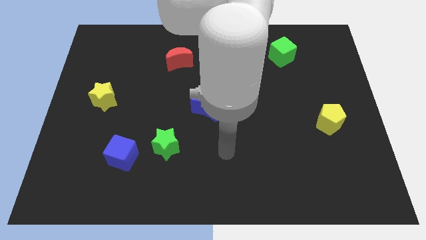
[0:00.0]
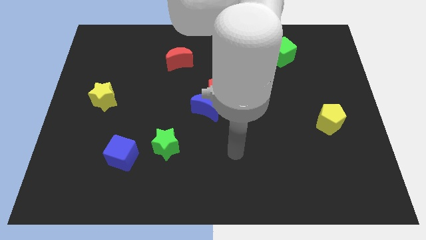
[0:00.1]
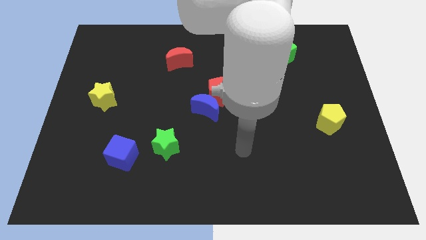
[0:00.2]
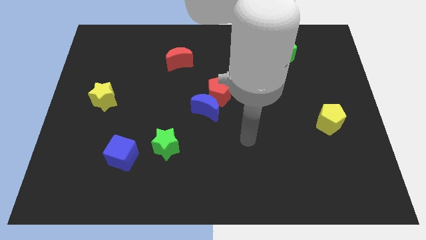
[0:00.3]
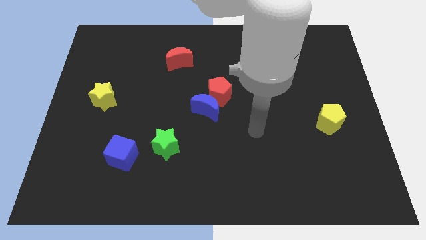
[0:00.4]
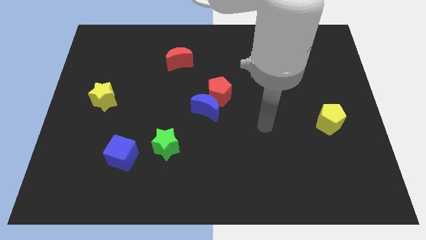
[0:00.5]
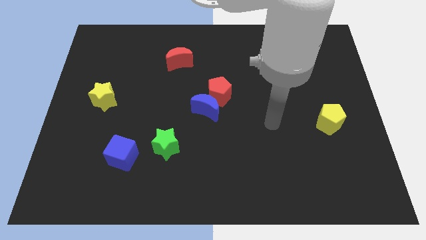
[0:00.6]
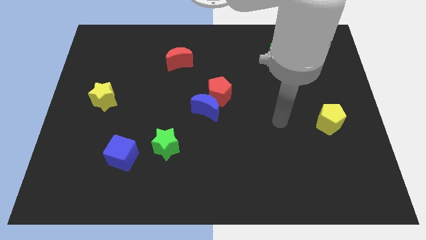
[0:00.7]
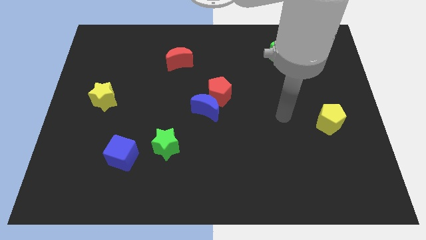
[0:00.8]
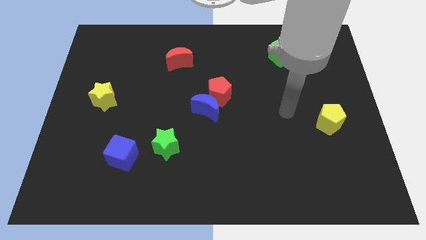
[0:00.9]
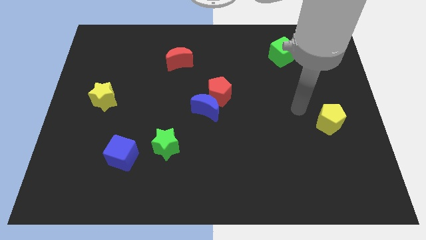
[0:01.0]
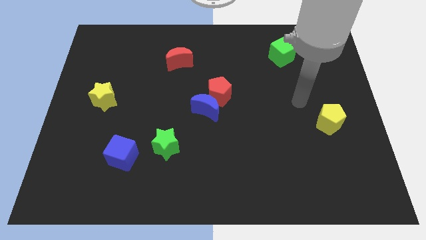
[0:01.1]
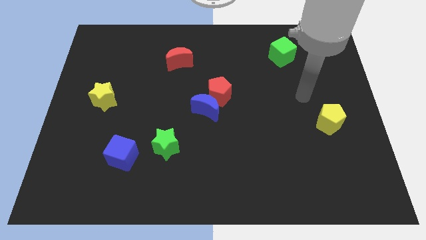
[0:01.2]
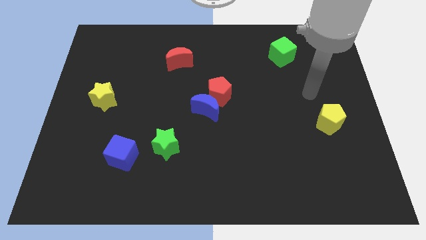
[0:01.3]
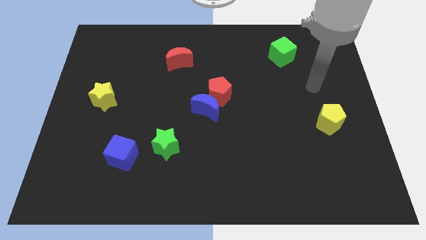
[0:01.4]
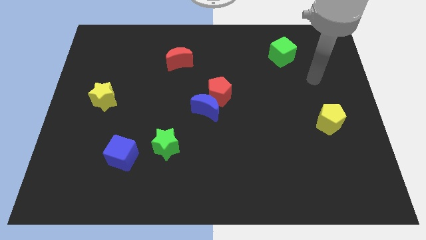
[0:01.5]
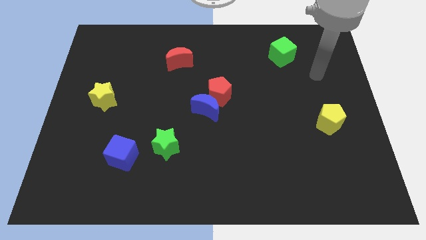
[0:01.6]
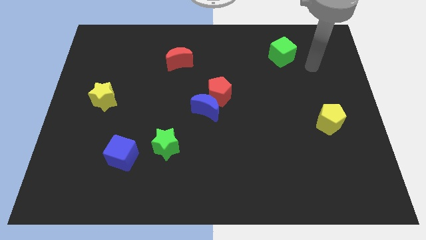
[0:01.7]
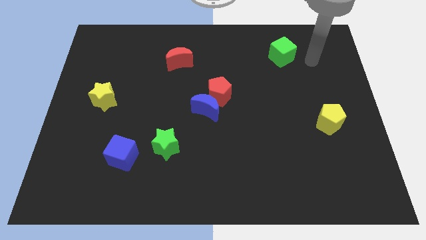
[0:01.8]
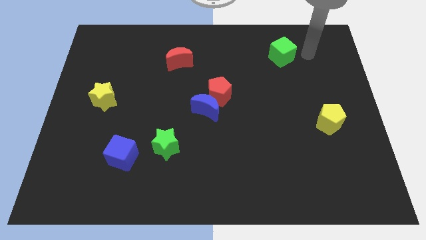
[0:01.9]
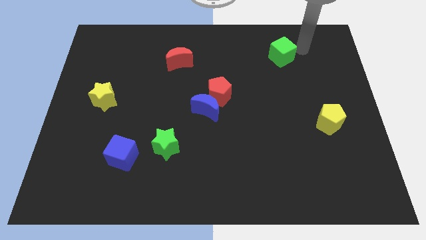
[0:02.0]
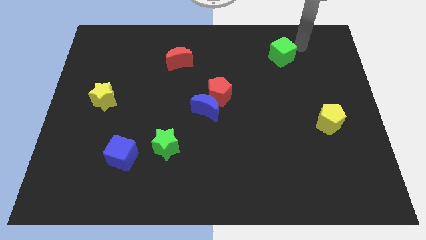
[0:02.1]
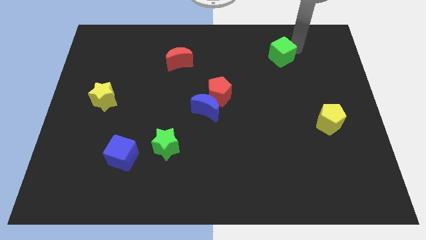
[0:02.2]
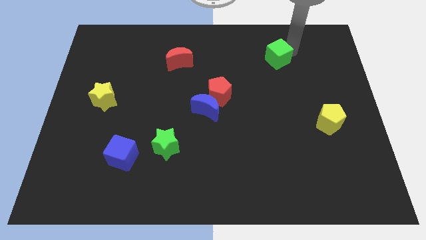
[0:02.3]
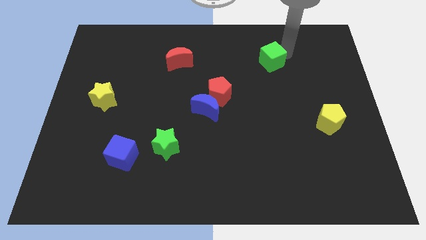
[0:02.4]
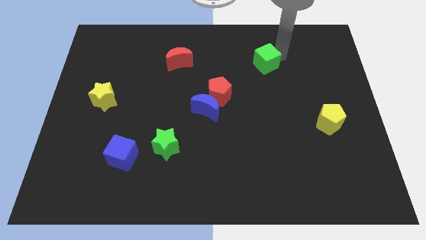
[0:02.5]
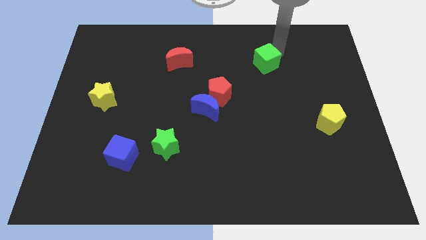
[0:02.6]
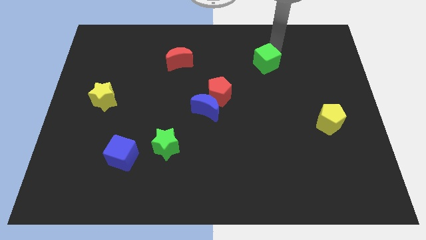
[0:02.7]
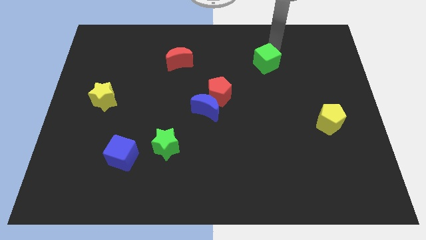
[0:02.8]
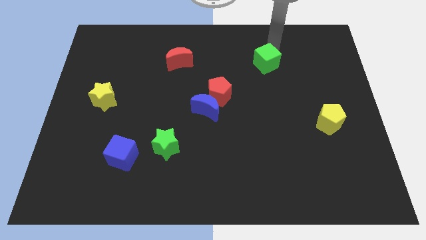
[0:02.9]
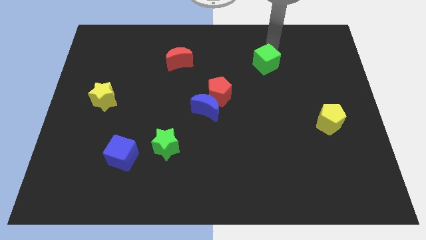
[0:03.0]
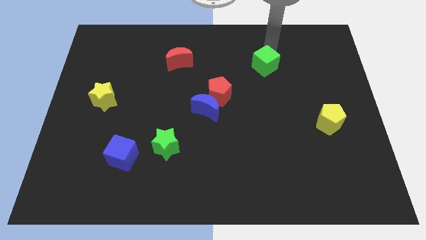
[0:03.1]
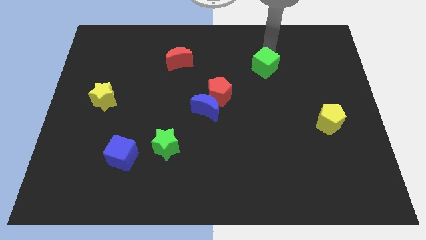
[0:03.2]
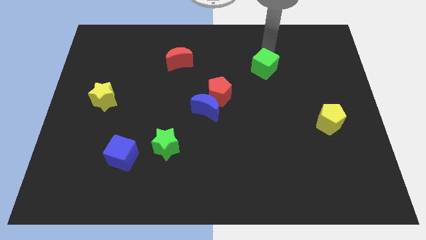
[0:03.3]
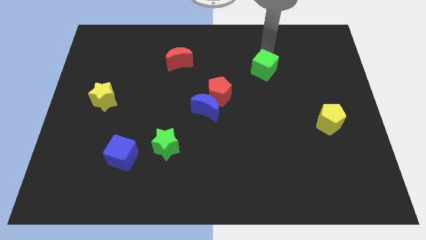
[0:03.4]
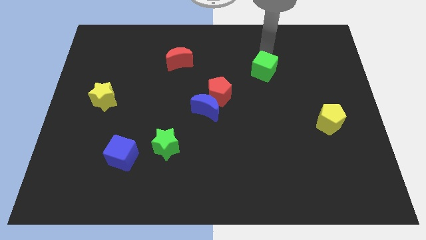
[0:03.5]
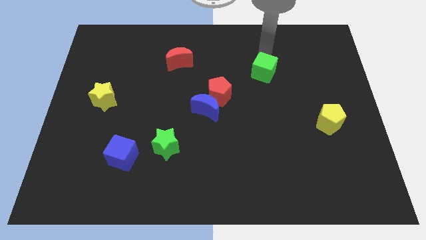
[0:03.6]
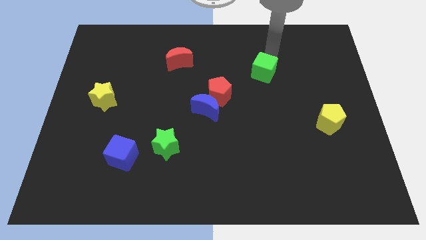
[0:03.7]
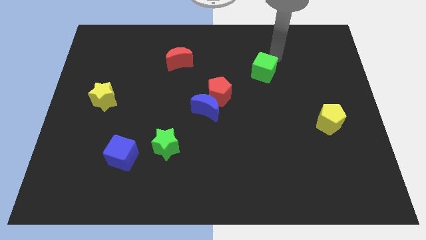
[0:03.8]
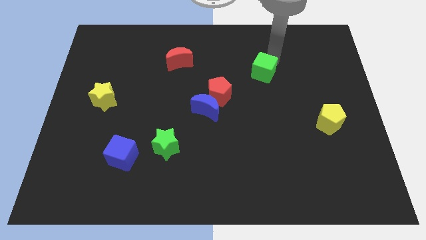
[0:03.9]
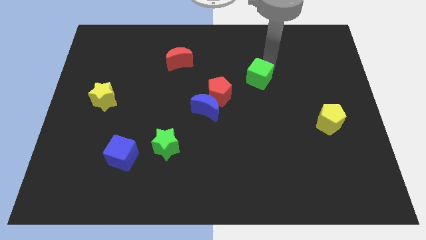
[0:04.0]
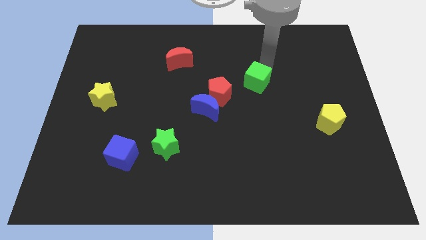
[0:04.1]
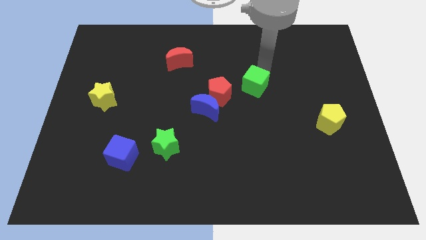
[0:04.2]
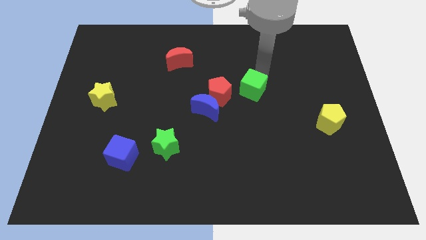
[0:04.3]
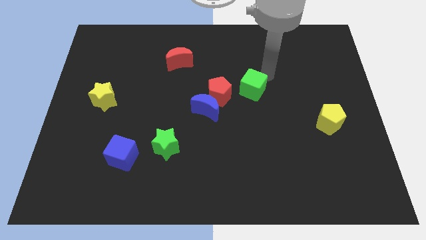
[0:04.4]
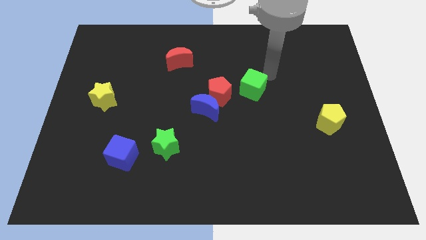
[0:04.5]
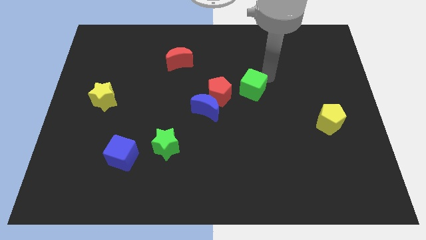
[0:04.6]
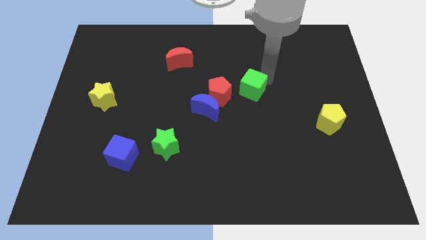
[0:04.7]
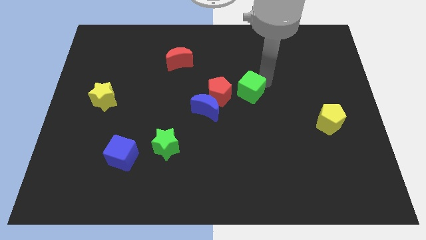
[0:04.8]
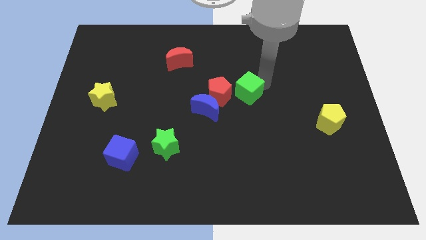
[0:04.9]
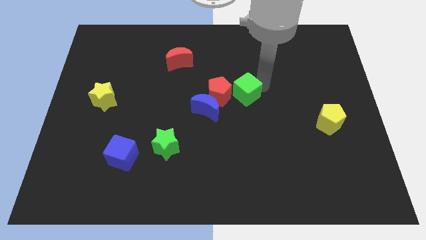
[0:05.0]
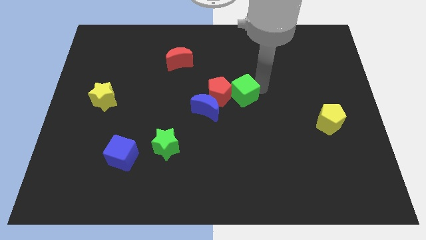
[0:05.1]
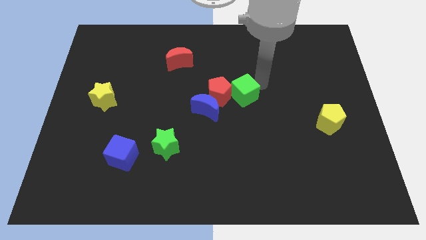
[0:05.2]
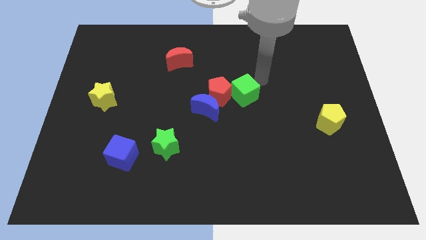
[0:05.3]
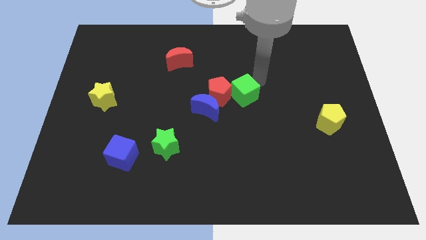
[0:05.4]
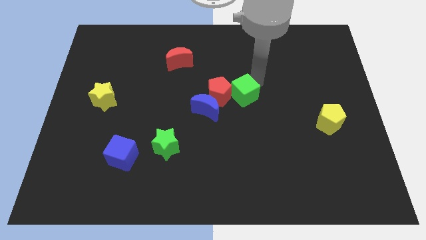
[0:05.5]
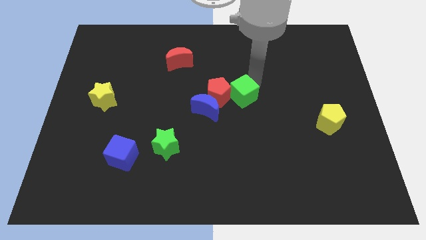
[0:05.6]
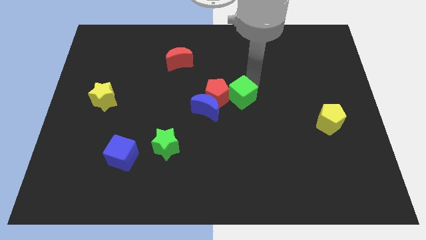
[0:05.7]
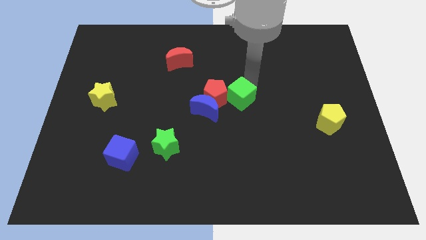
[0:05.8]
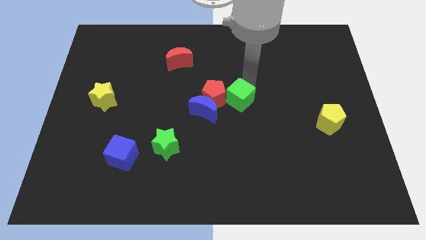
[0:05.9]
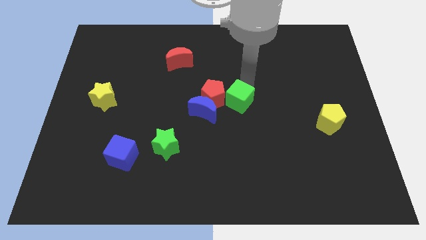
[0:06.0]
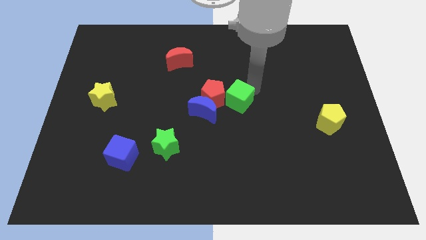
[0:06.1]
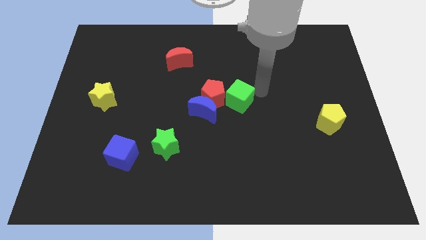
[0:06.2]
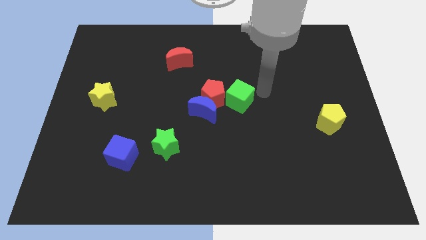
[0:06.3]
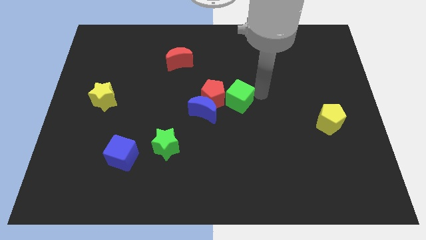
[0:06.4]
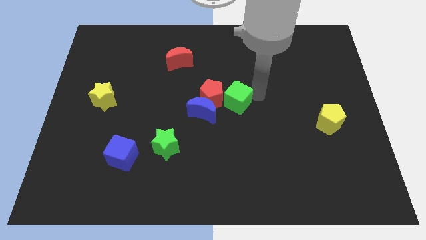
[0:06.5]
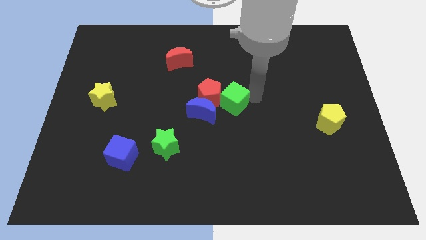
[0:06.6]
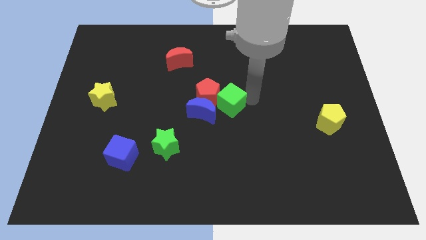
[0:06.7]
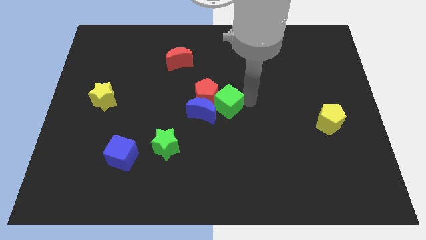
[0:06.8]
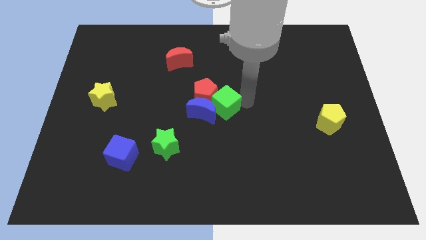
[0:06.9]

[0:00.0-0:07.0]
slide the green cube next to the blue moon

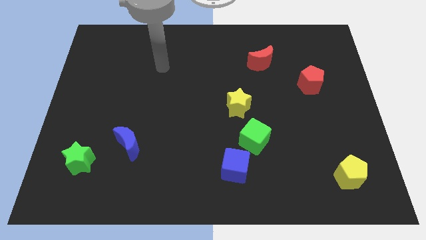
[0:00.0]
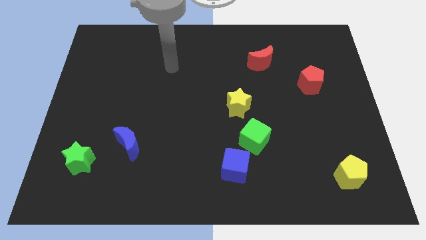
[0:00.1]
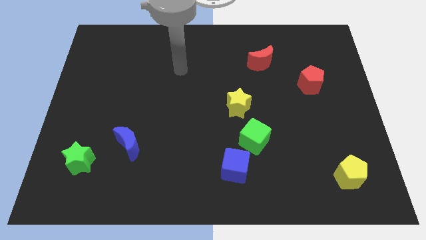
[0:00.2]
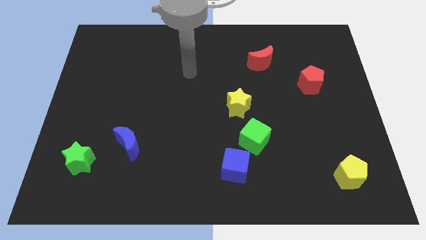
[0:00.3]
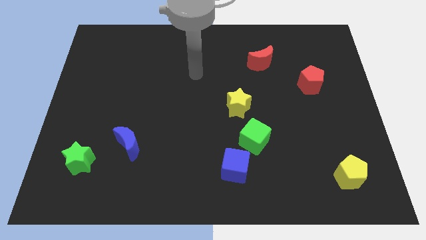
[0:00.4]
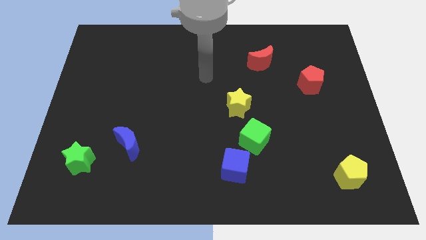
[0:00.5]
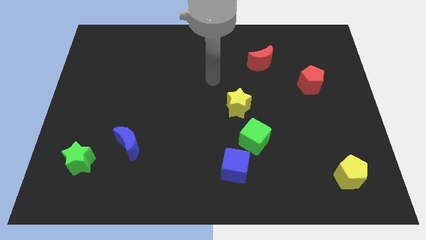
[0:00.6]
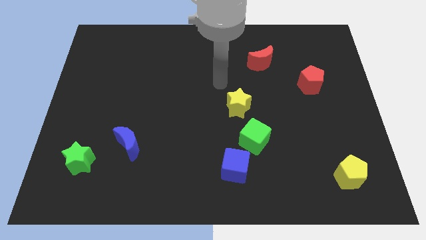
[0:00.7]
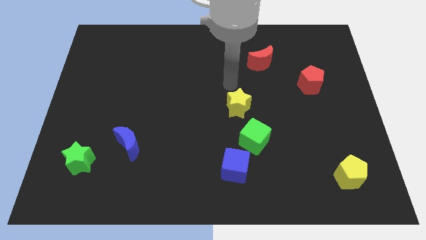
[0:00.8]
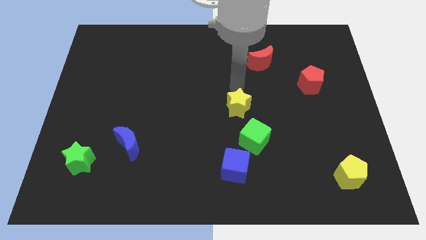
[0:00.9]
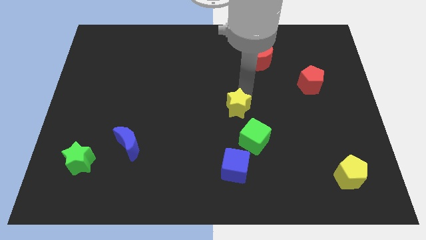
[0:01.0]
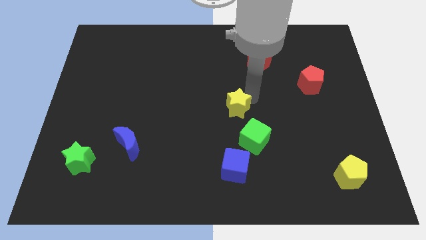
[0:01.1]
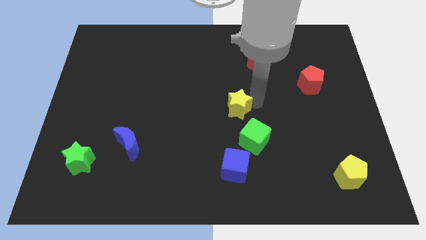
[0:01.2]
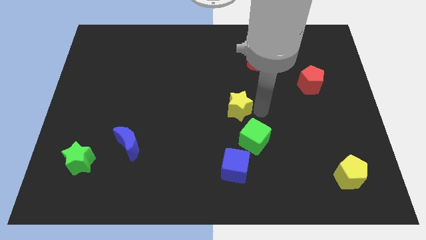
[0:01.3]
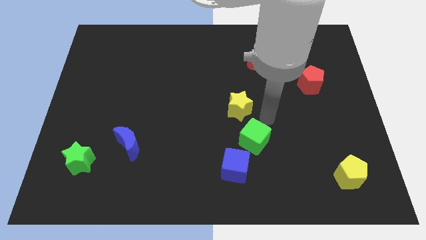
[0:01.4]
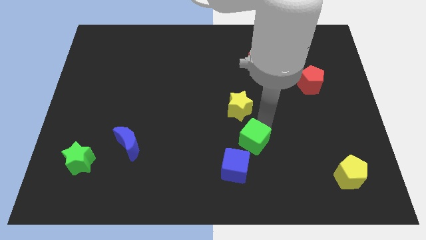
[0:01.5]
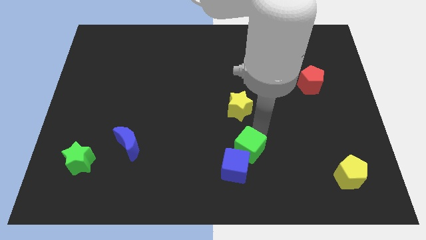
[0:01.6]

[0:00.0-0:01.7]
put the green cube close to the blue cube
